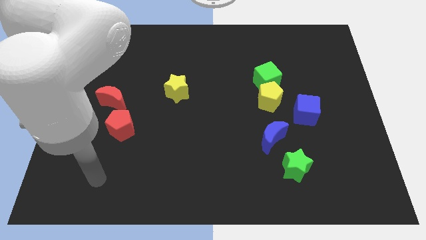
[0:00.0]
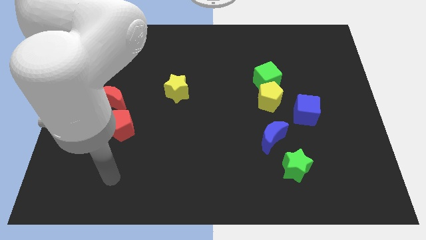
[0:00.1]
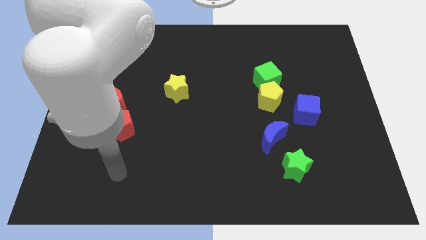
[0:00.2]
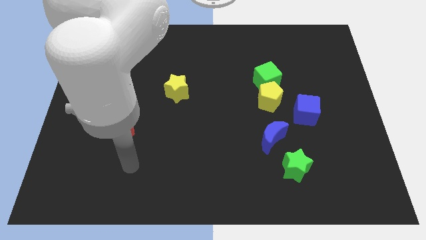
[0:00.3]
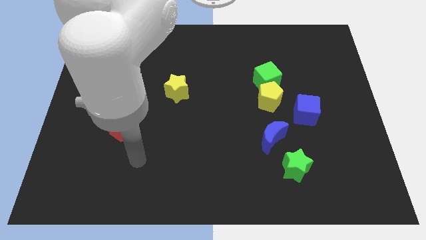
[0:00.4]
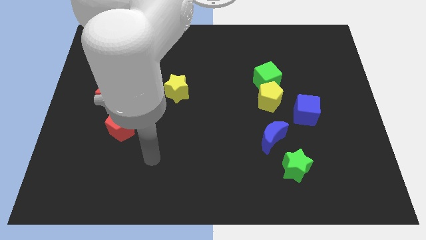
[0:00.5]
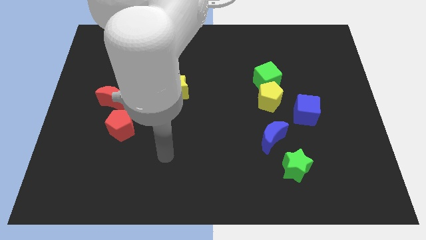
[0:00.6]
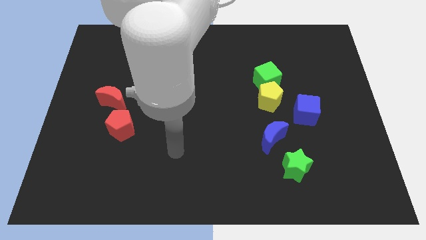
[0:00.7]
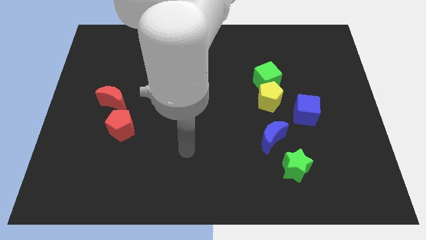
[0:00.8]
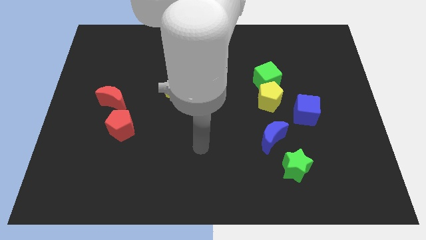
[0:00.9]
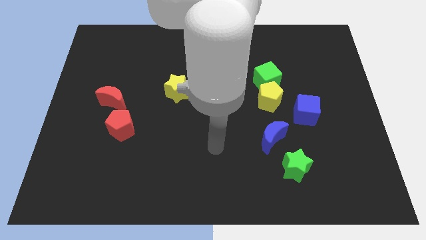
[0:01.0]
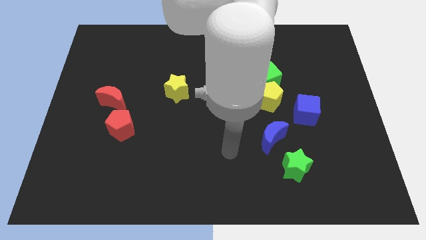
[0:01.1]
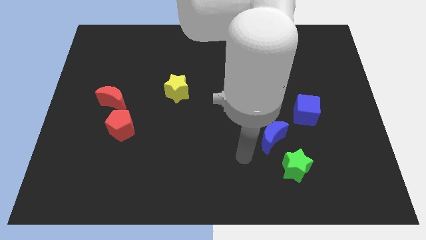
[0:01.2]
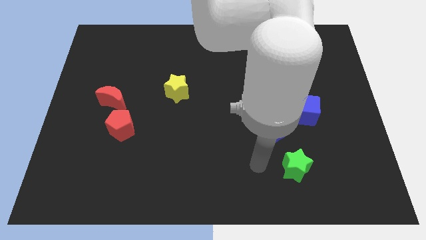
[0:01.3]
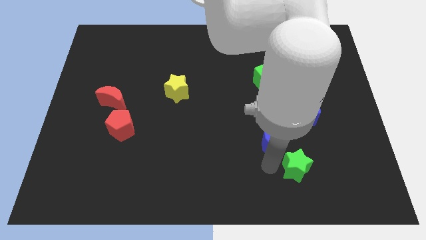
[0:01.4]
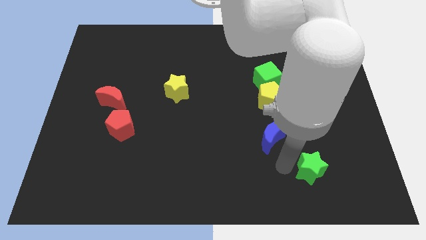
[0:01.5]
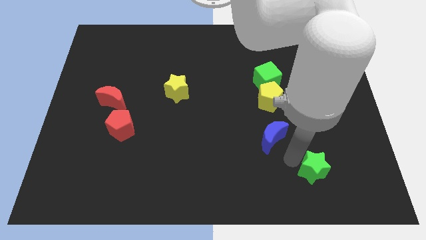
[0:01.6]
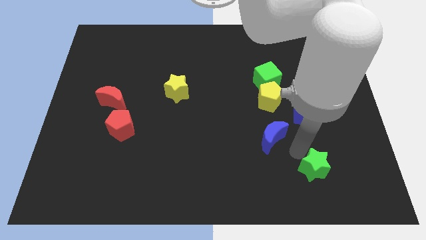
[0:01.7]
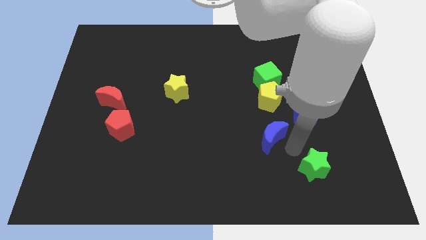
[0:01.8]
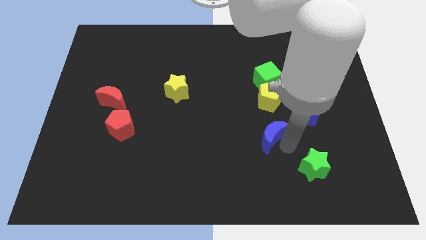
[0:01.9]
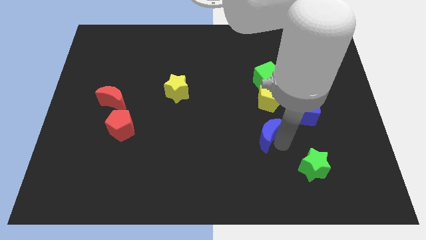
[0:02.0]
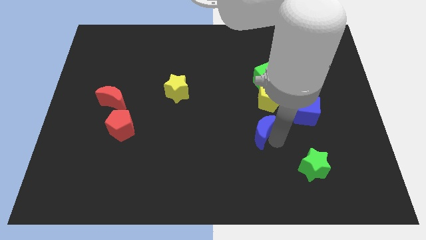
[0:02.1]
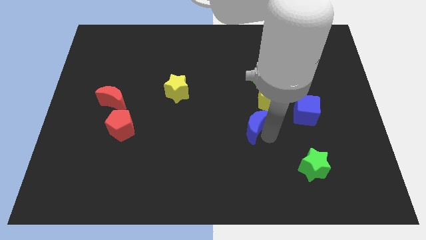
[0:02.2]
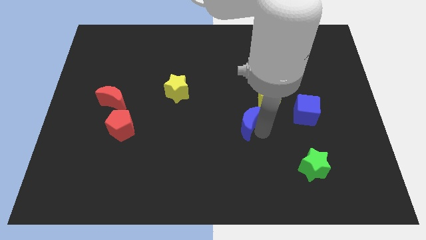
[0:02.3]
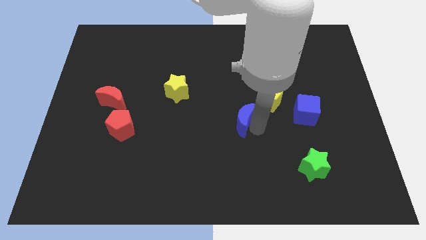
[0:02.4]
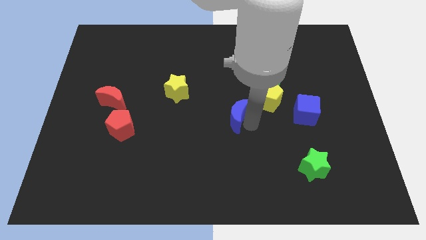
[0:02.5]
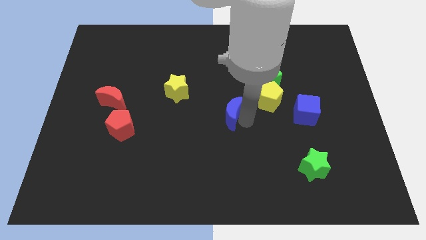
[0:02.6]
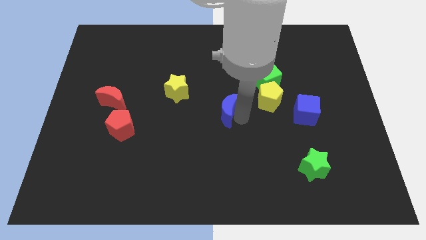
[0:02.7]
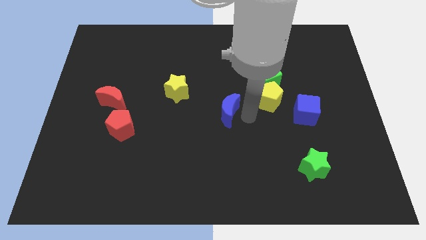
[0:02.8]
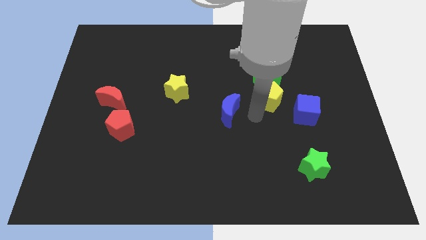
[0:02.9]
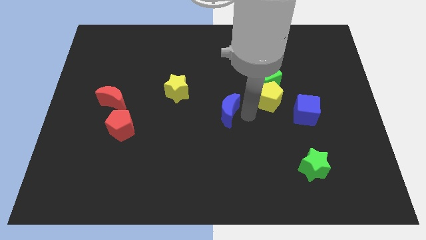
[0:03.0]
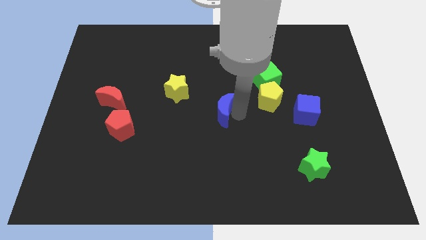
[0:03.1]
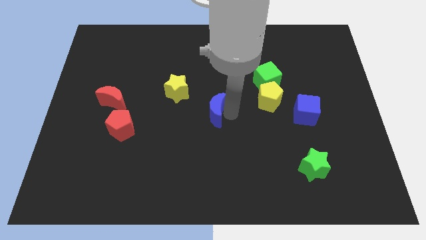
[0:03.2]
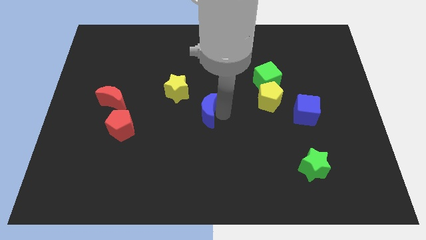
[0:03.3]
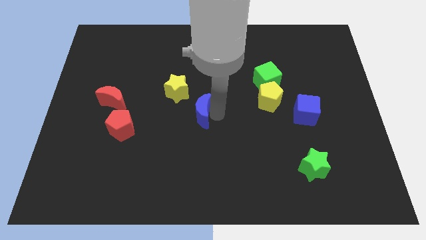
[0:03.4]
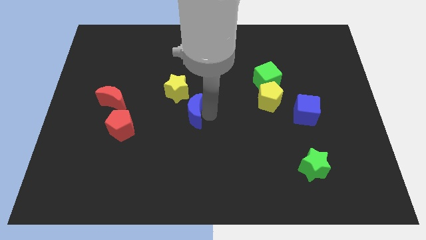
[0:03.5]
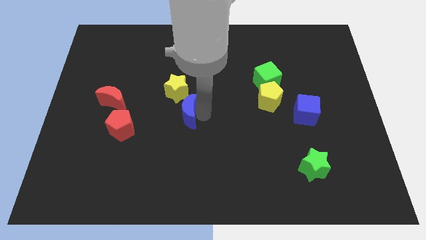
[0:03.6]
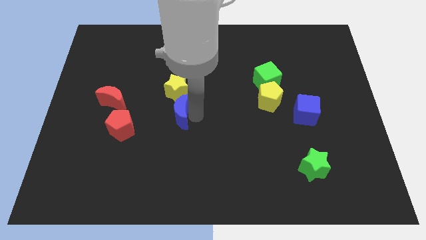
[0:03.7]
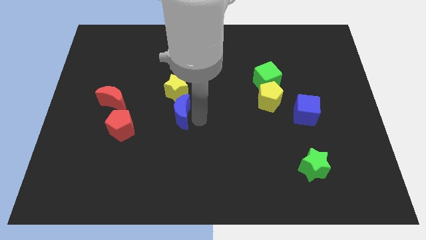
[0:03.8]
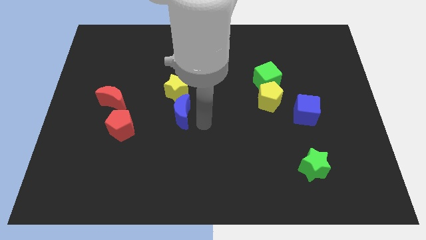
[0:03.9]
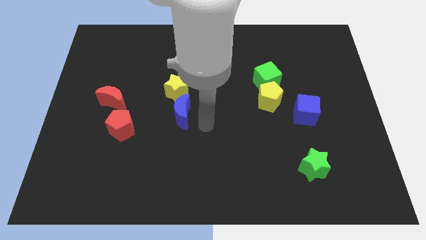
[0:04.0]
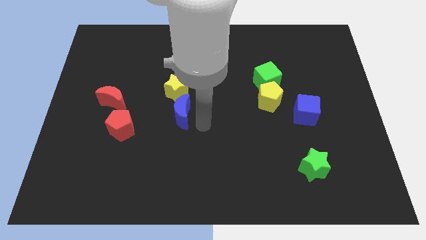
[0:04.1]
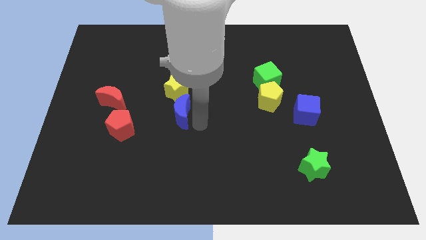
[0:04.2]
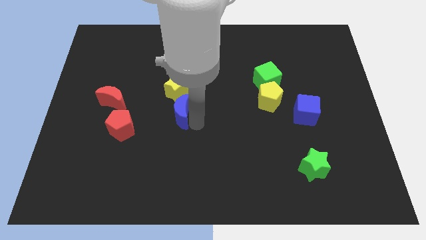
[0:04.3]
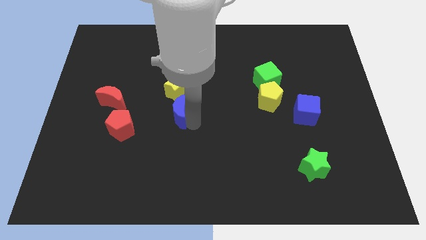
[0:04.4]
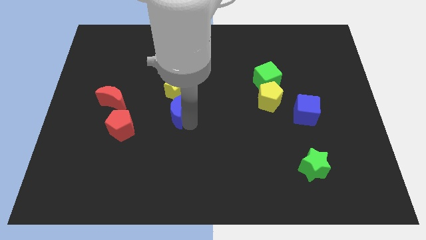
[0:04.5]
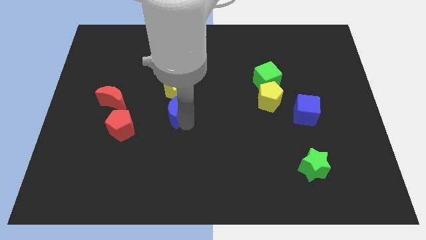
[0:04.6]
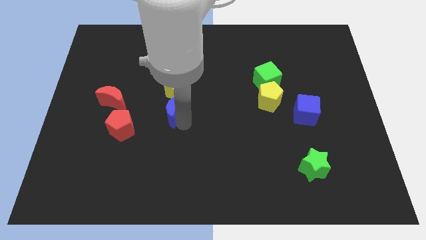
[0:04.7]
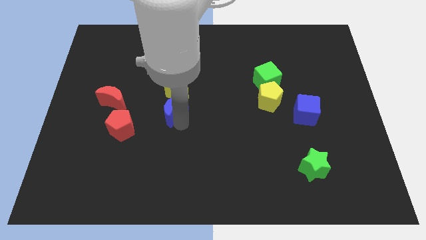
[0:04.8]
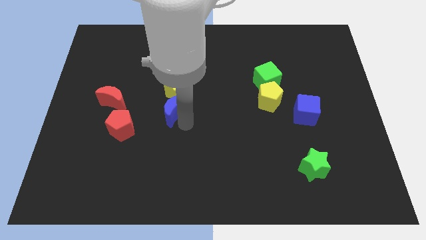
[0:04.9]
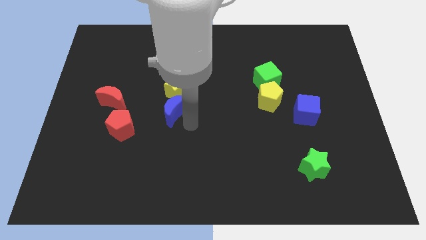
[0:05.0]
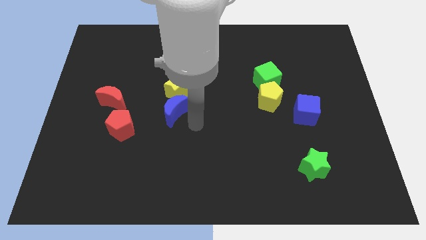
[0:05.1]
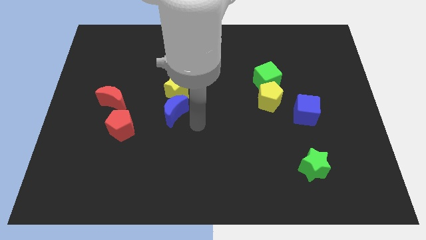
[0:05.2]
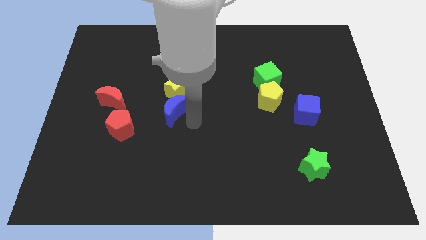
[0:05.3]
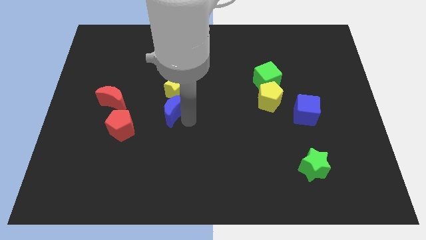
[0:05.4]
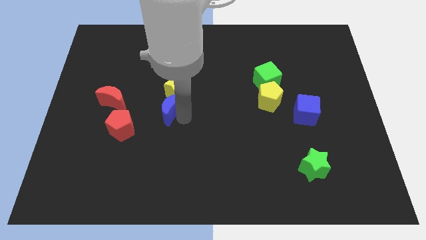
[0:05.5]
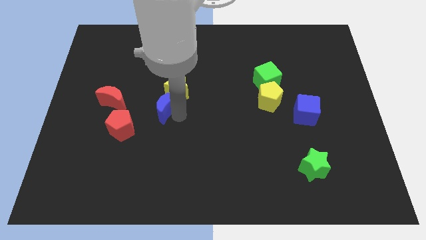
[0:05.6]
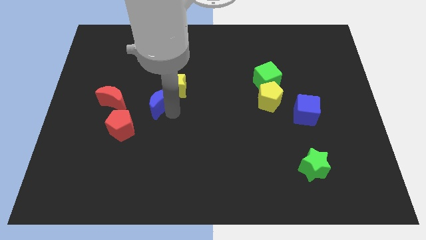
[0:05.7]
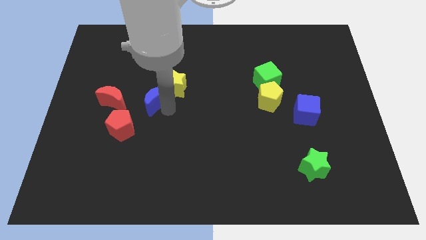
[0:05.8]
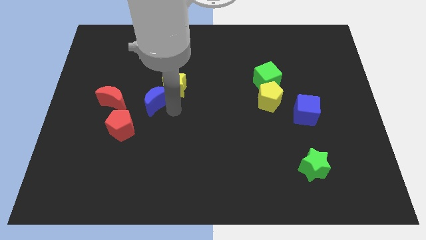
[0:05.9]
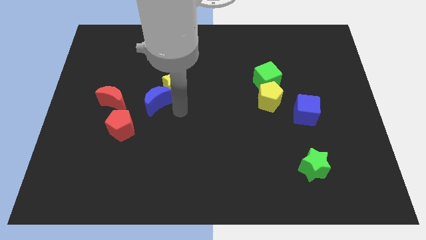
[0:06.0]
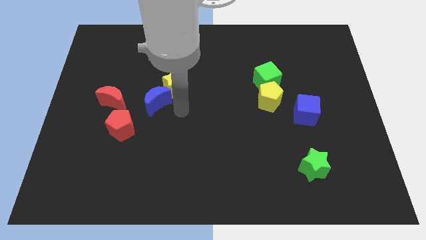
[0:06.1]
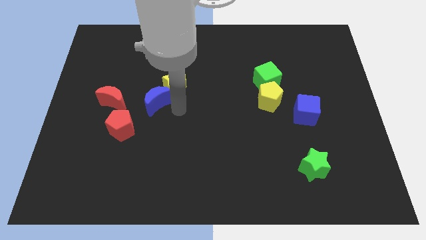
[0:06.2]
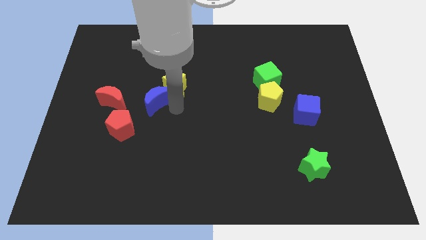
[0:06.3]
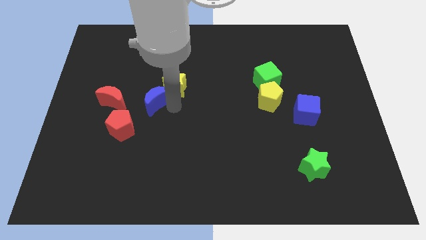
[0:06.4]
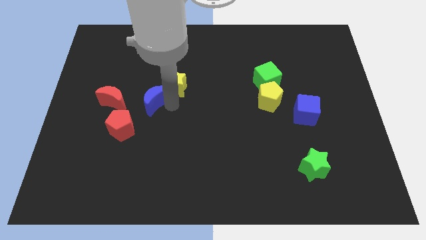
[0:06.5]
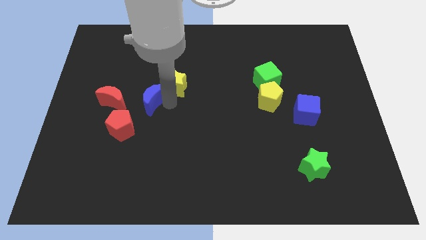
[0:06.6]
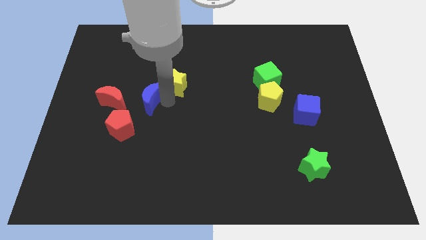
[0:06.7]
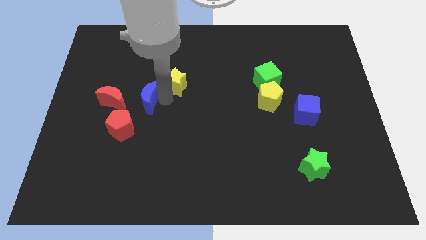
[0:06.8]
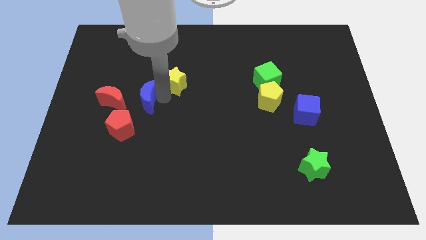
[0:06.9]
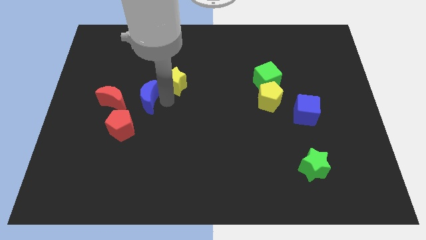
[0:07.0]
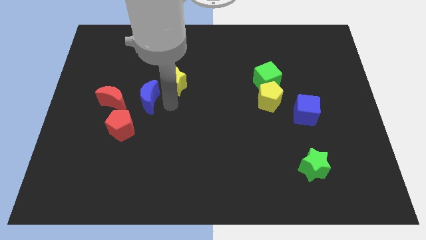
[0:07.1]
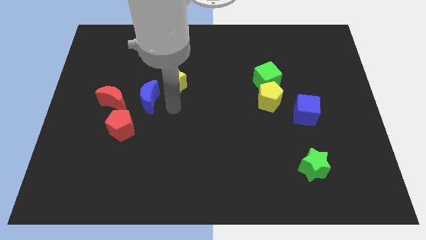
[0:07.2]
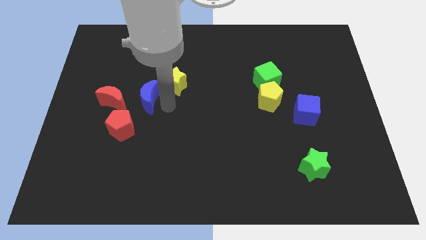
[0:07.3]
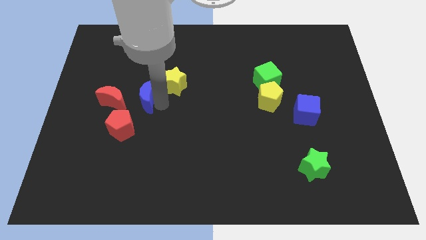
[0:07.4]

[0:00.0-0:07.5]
push the blue moon to the top of the red pentagon
